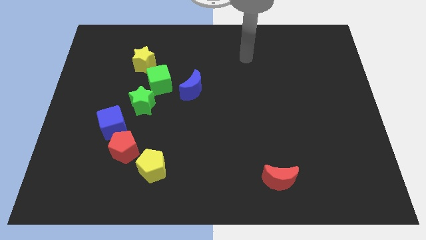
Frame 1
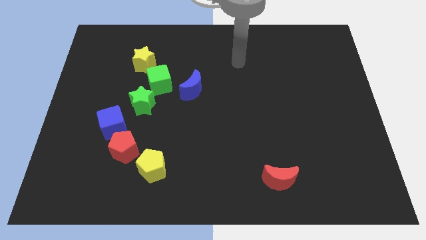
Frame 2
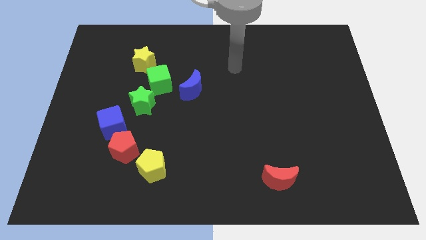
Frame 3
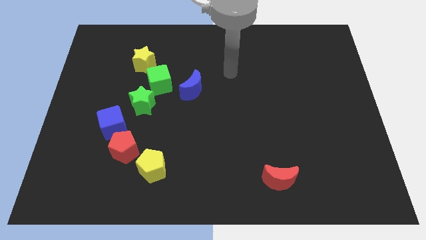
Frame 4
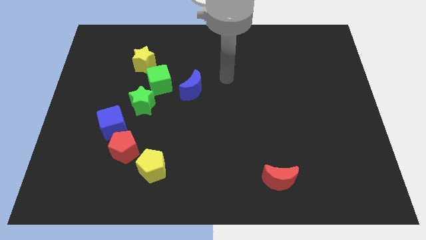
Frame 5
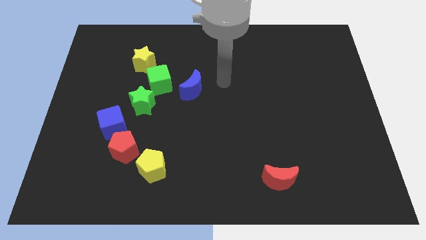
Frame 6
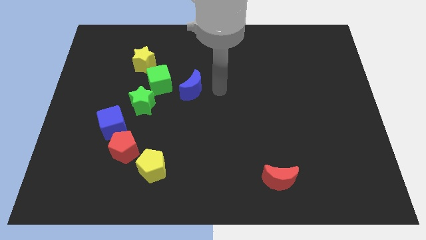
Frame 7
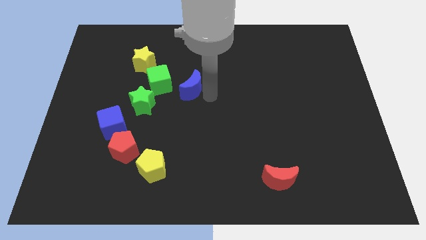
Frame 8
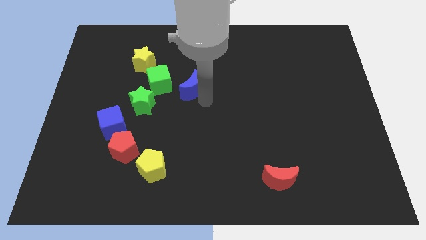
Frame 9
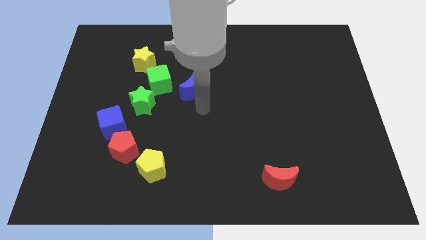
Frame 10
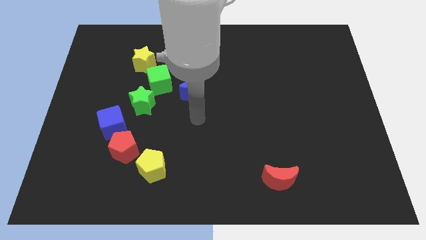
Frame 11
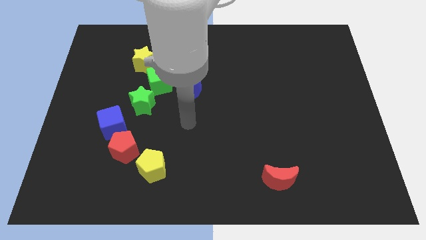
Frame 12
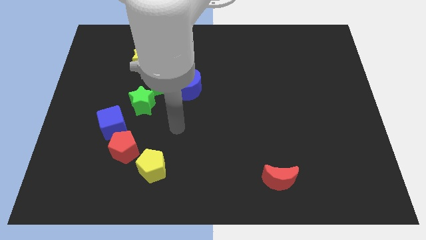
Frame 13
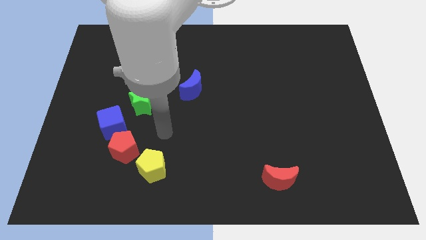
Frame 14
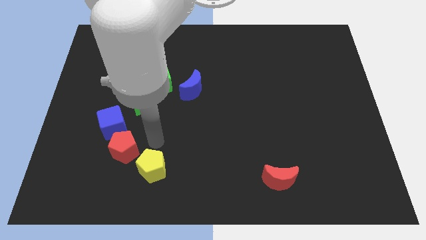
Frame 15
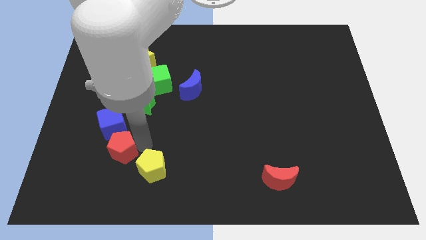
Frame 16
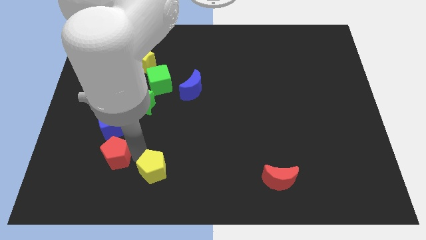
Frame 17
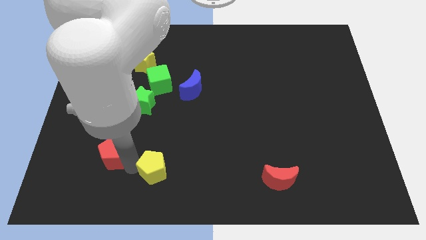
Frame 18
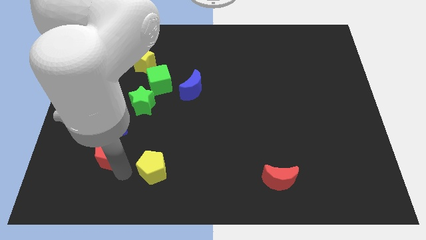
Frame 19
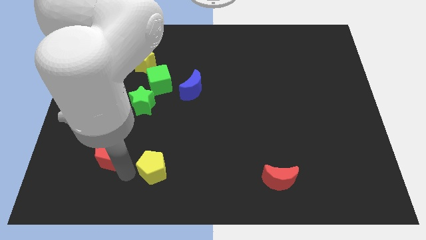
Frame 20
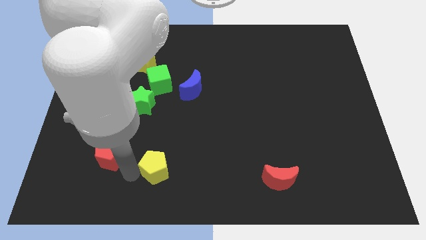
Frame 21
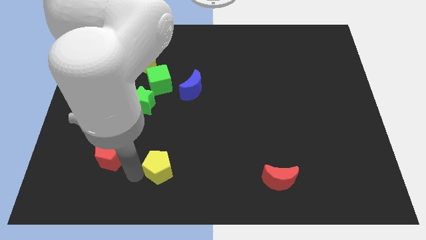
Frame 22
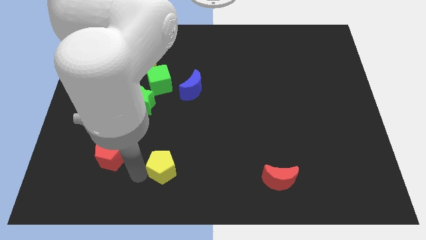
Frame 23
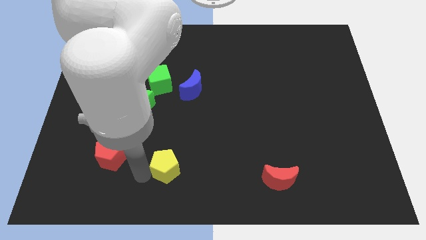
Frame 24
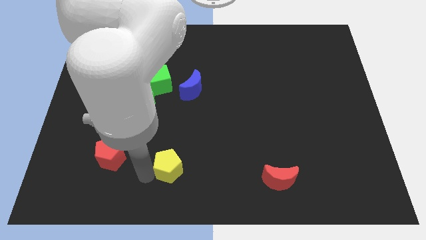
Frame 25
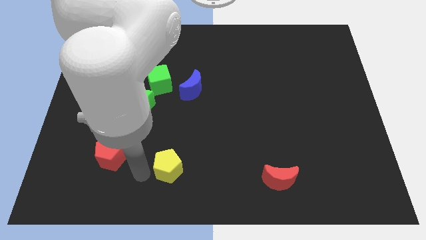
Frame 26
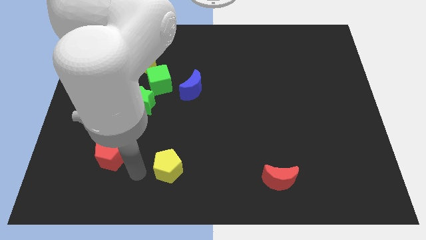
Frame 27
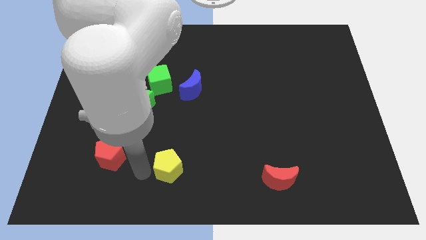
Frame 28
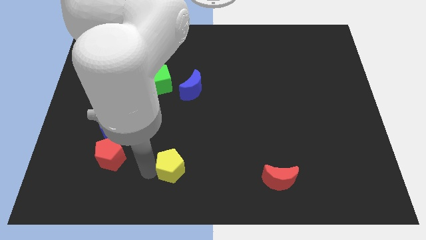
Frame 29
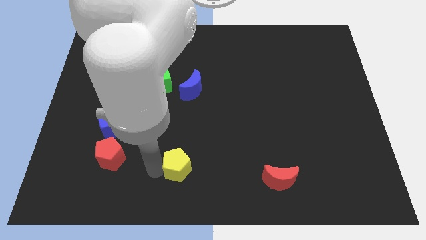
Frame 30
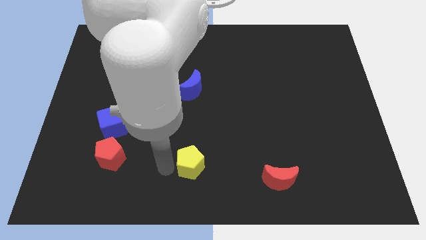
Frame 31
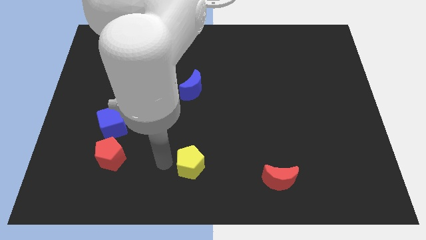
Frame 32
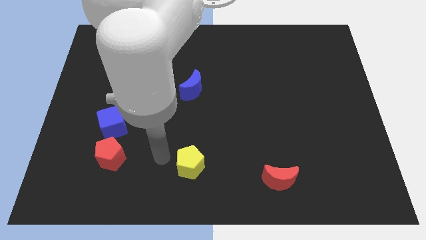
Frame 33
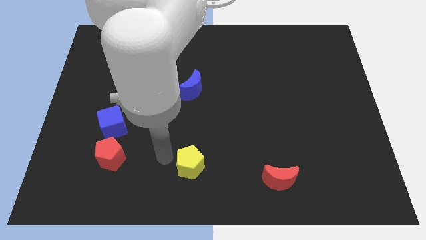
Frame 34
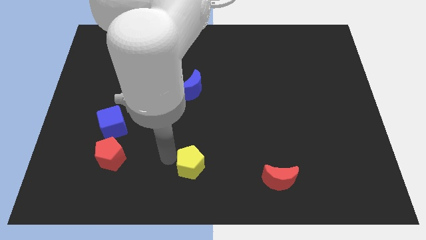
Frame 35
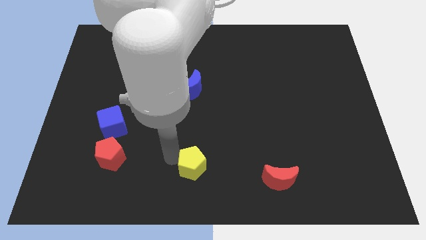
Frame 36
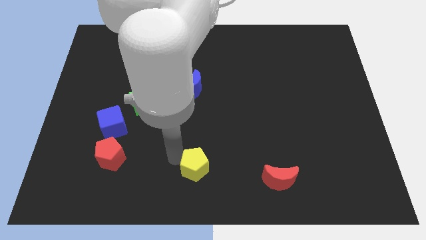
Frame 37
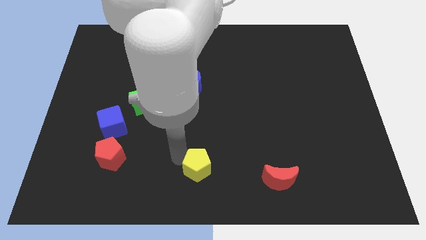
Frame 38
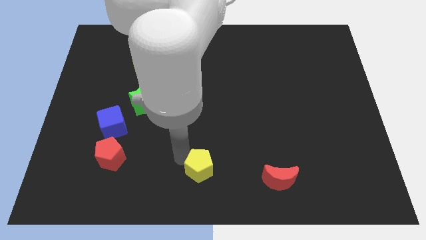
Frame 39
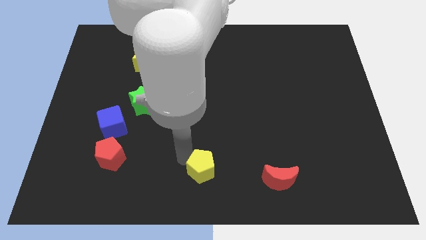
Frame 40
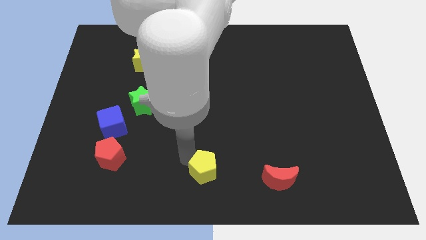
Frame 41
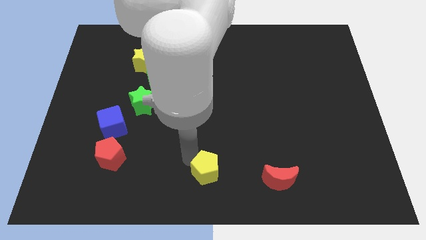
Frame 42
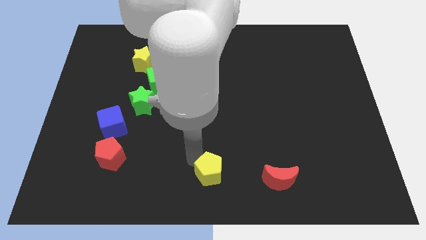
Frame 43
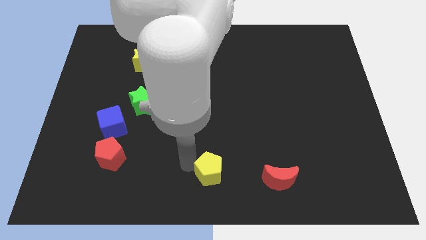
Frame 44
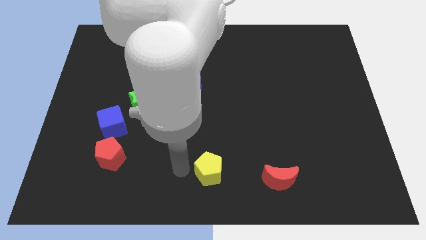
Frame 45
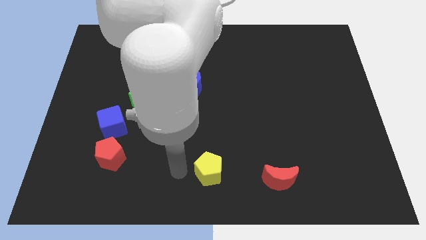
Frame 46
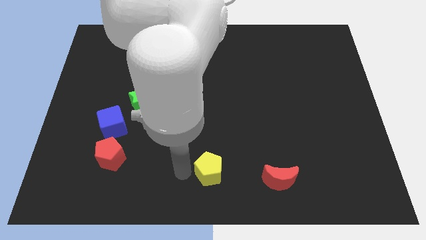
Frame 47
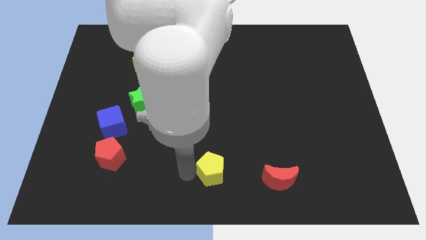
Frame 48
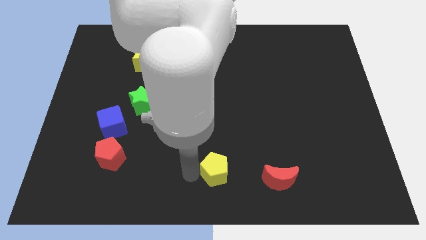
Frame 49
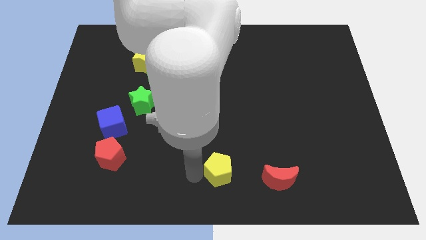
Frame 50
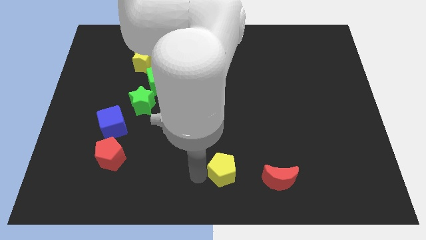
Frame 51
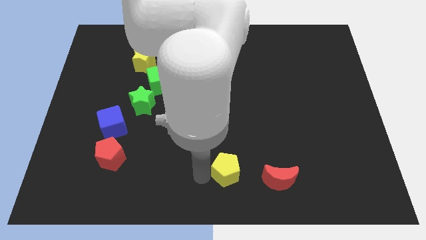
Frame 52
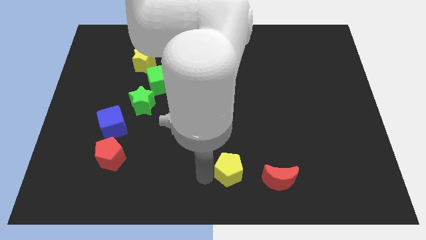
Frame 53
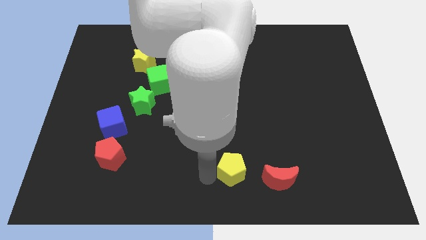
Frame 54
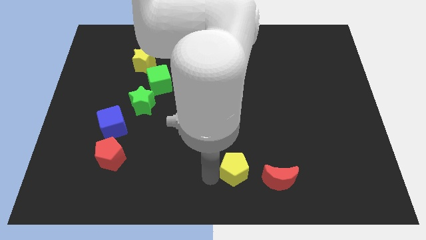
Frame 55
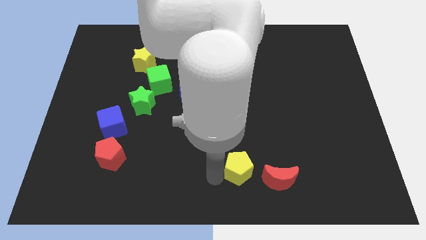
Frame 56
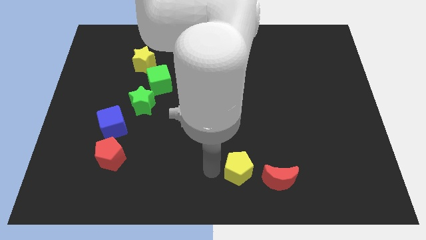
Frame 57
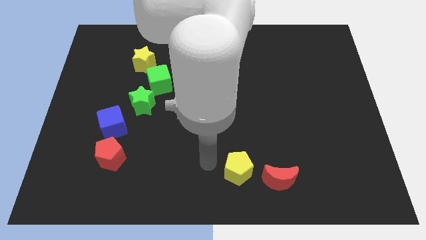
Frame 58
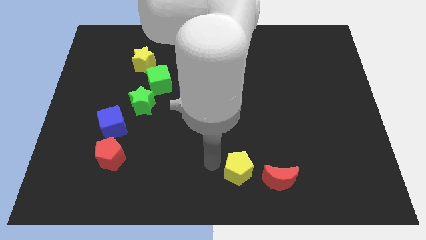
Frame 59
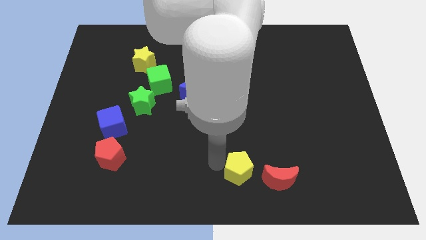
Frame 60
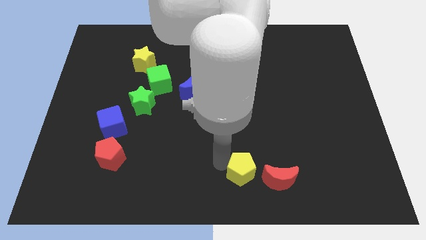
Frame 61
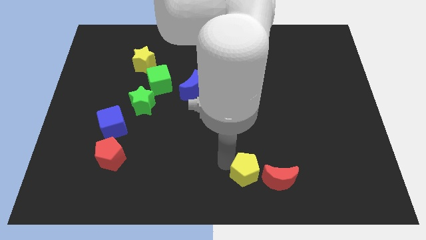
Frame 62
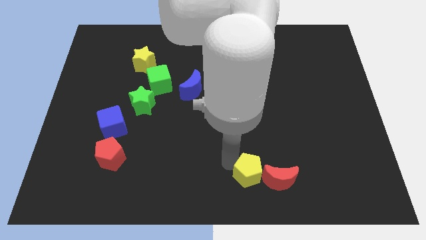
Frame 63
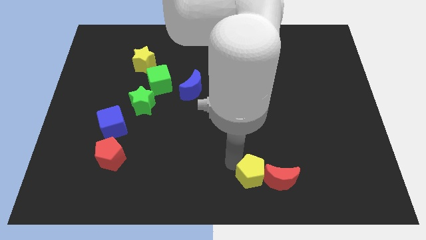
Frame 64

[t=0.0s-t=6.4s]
put the yellow pentagon next to the red moon
